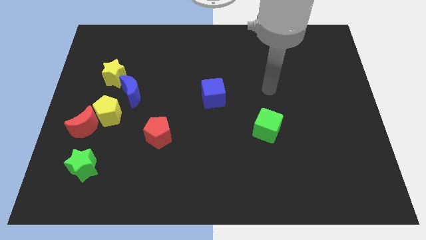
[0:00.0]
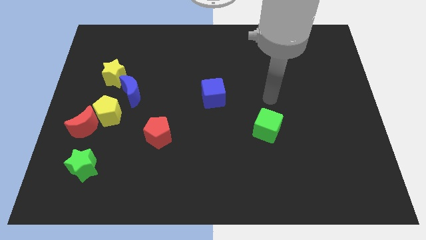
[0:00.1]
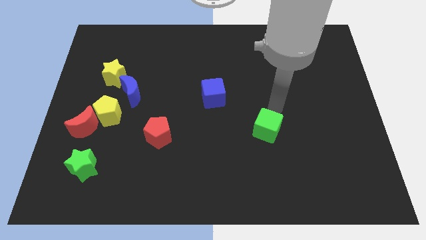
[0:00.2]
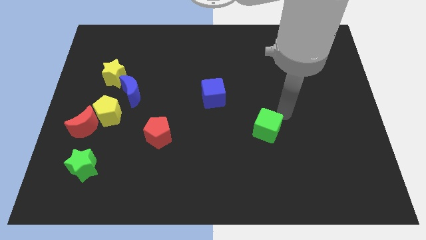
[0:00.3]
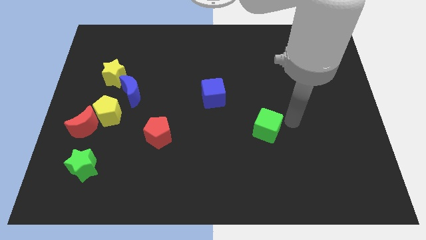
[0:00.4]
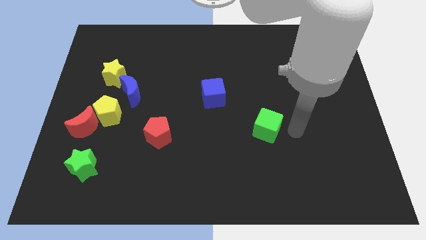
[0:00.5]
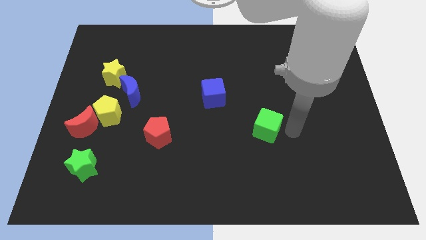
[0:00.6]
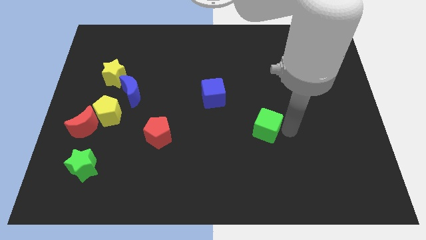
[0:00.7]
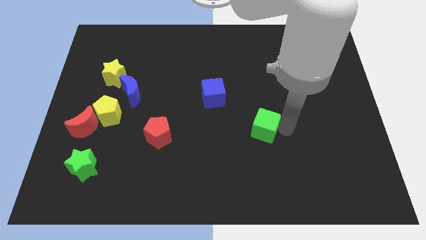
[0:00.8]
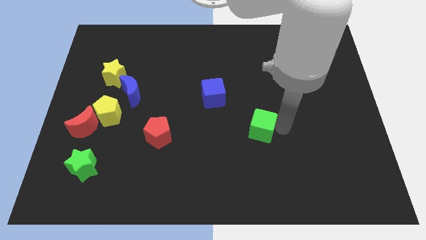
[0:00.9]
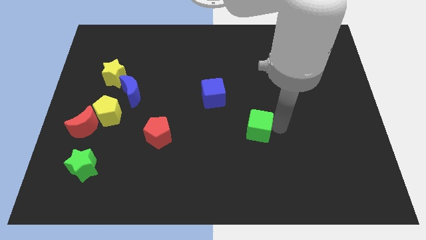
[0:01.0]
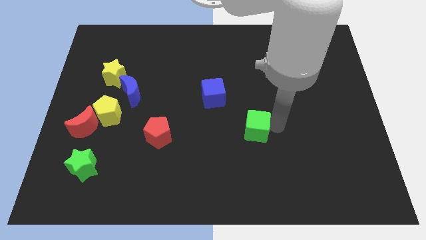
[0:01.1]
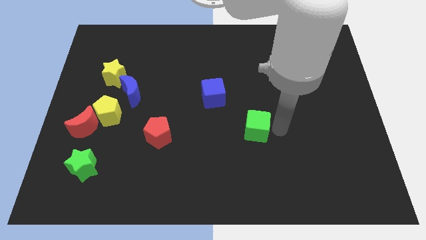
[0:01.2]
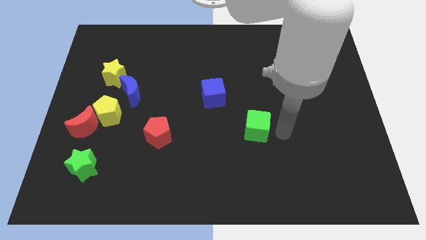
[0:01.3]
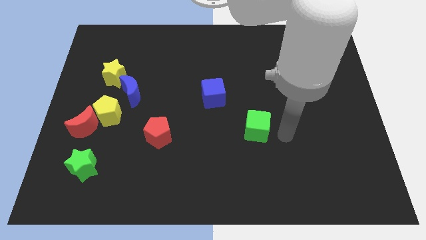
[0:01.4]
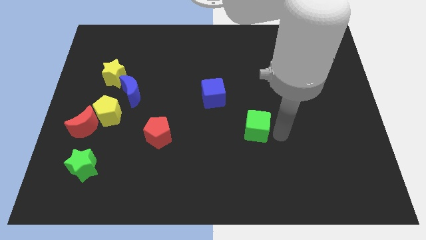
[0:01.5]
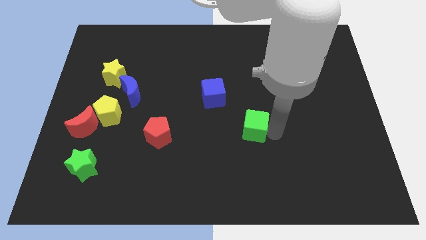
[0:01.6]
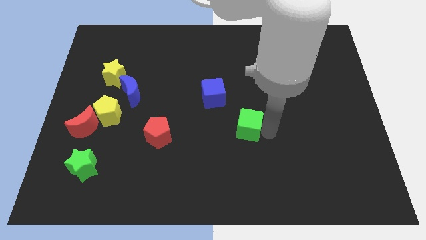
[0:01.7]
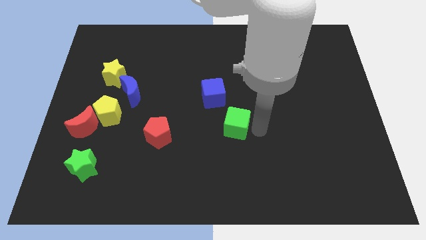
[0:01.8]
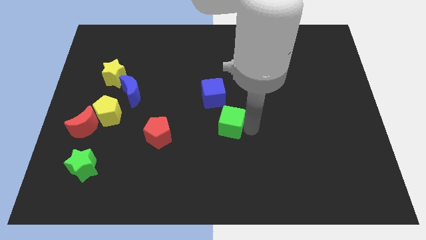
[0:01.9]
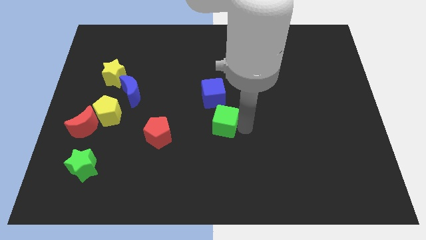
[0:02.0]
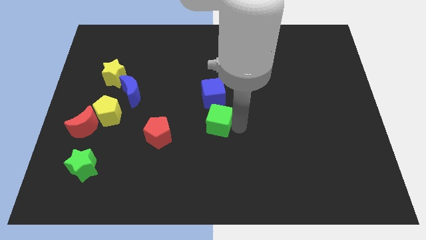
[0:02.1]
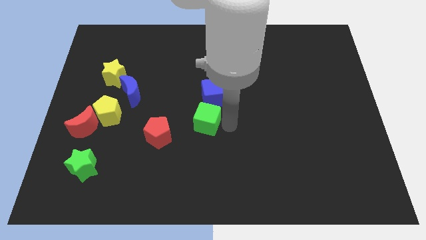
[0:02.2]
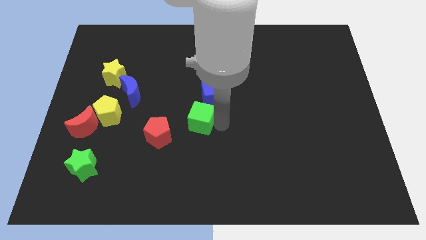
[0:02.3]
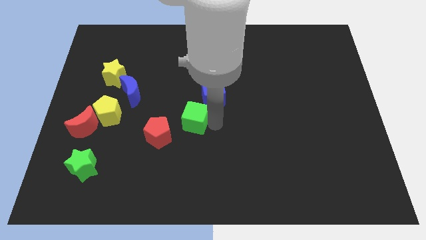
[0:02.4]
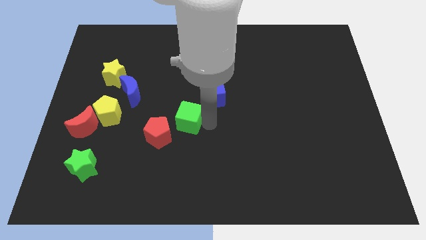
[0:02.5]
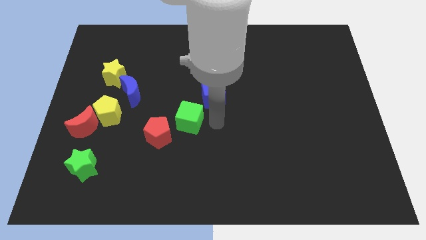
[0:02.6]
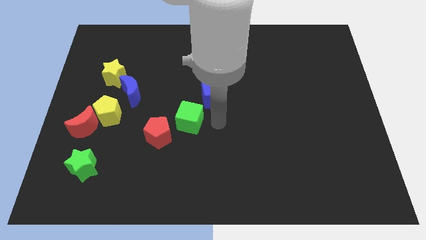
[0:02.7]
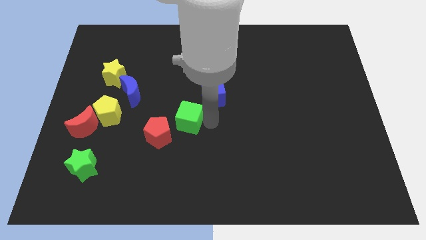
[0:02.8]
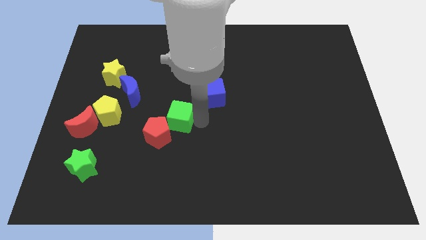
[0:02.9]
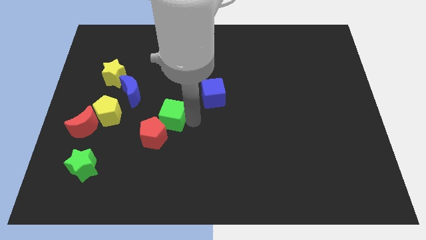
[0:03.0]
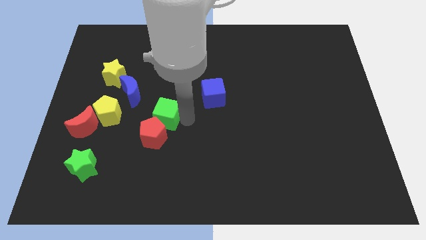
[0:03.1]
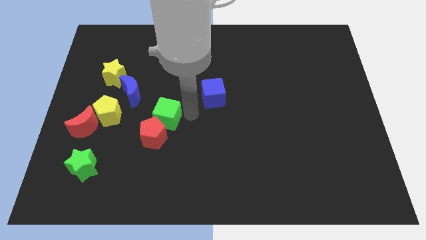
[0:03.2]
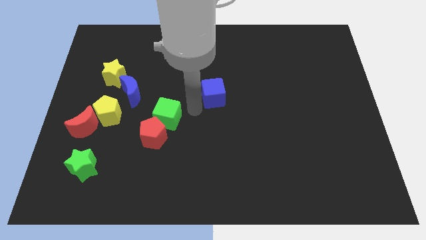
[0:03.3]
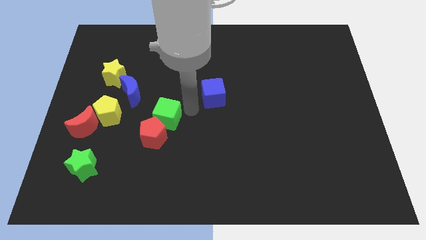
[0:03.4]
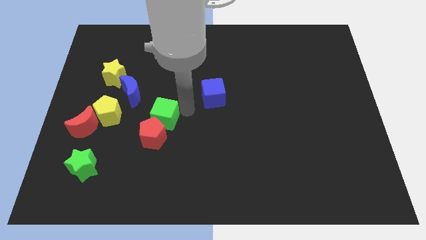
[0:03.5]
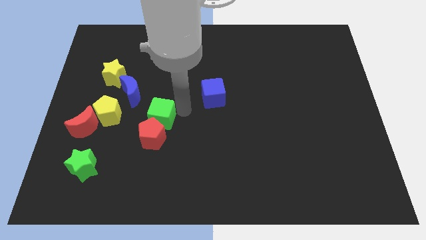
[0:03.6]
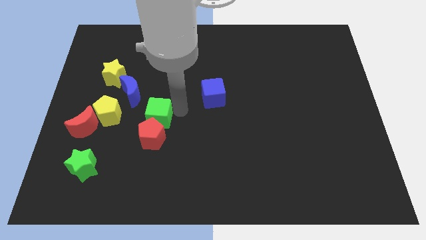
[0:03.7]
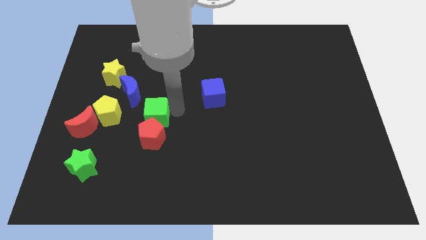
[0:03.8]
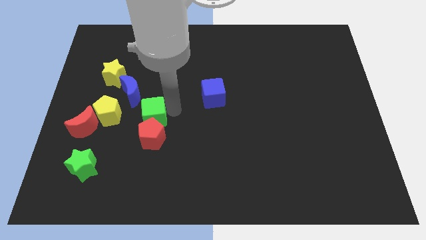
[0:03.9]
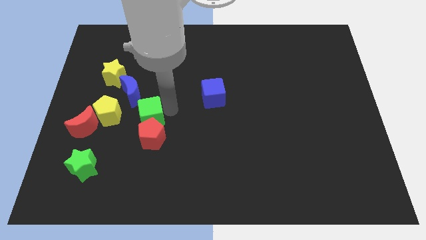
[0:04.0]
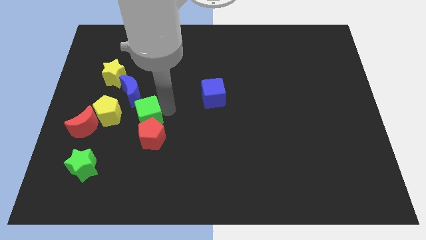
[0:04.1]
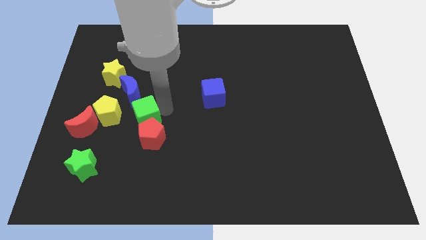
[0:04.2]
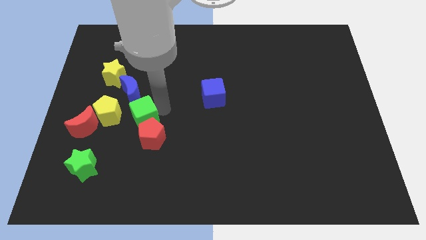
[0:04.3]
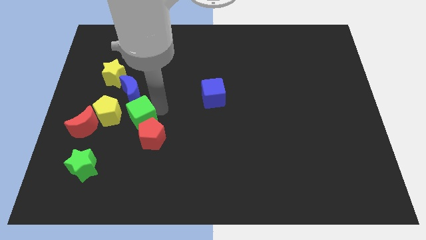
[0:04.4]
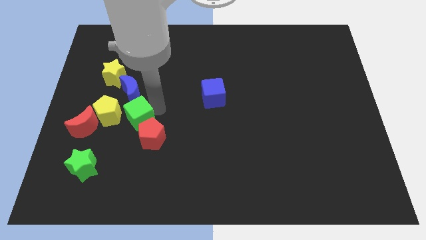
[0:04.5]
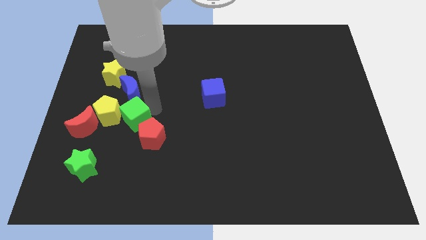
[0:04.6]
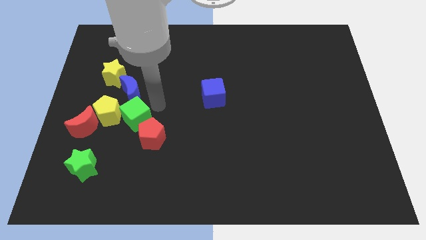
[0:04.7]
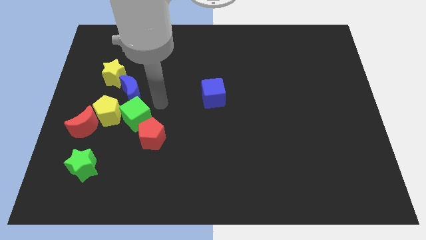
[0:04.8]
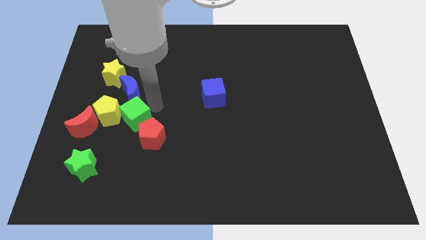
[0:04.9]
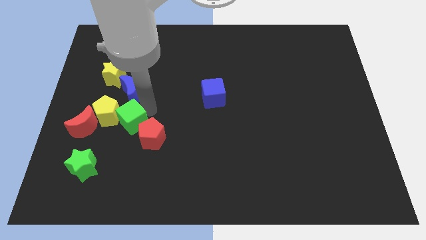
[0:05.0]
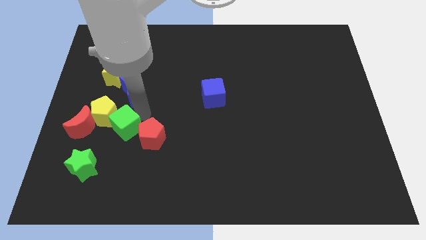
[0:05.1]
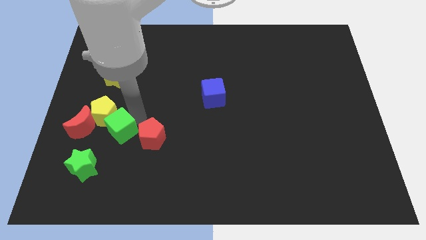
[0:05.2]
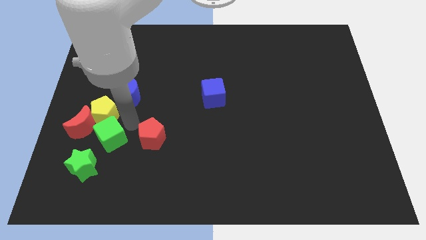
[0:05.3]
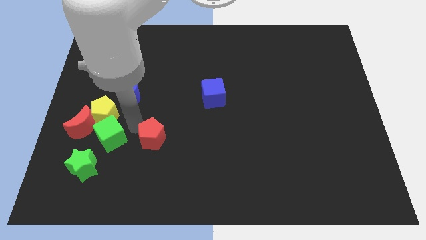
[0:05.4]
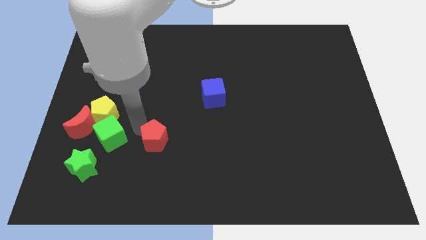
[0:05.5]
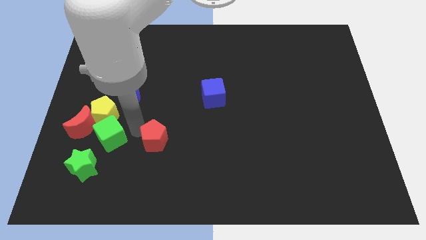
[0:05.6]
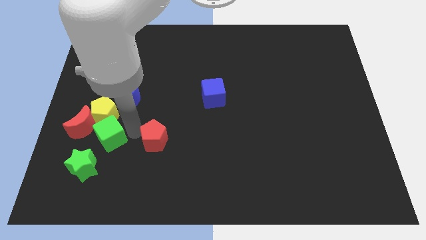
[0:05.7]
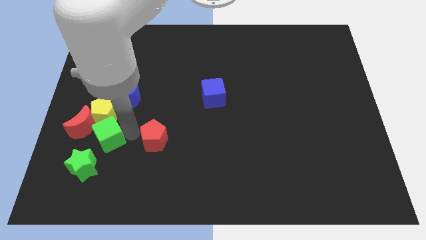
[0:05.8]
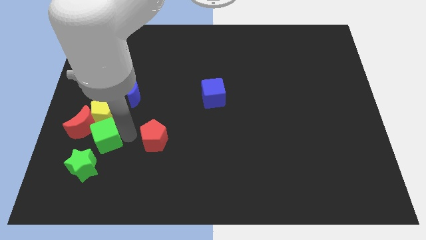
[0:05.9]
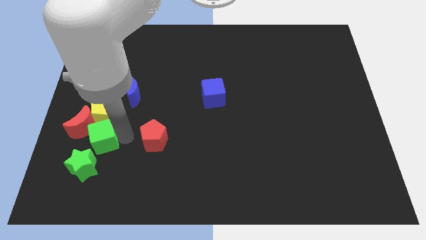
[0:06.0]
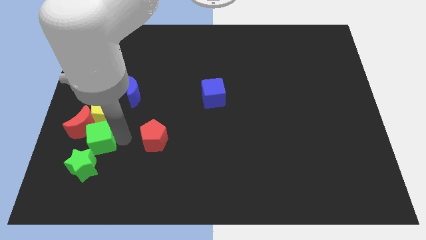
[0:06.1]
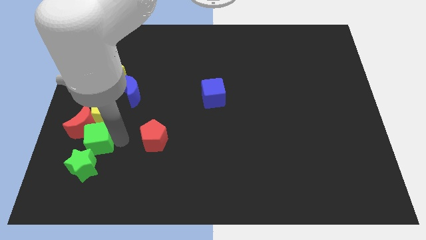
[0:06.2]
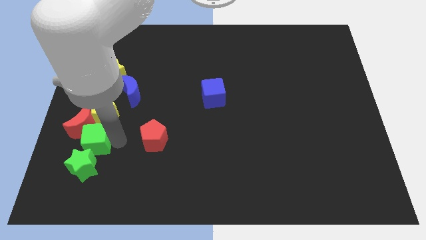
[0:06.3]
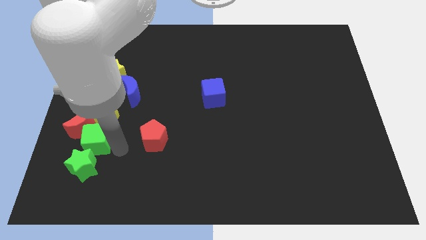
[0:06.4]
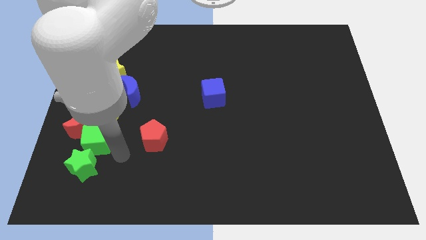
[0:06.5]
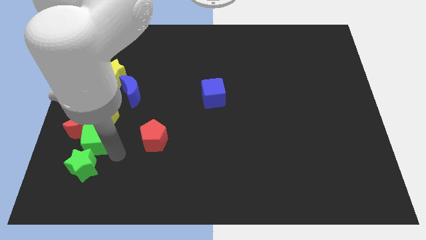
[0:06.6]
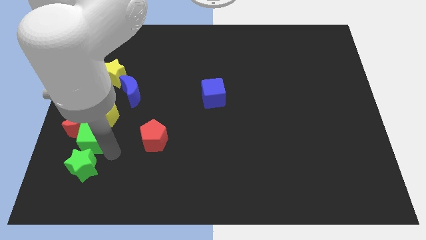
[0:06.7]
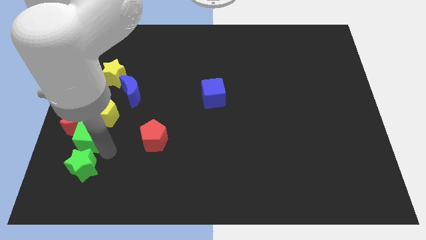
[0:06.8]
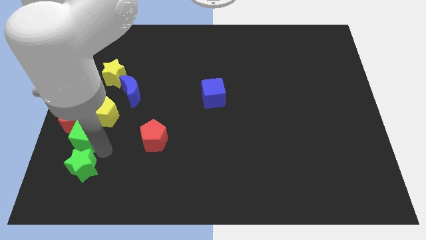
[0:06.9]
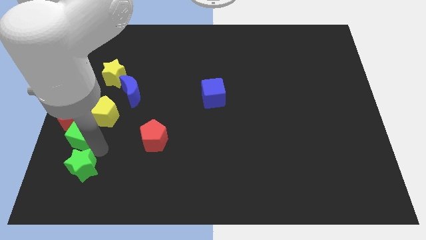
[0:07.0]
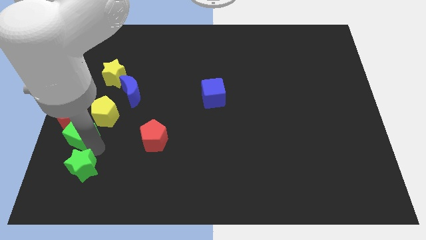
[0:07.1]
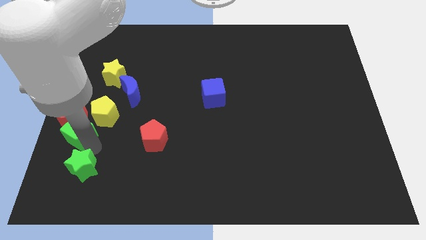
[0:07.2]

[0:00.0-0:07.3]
move the green cube to the left side
